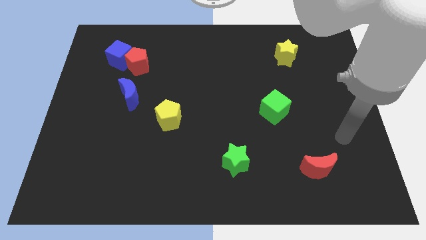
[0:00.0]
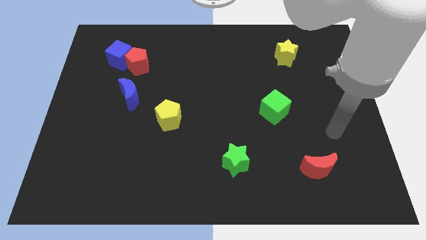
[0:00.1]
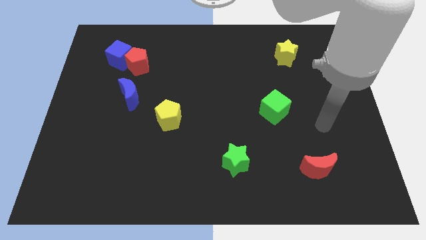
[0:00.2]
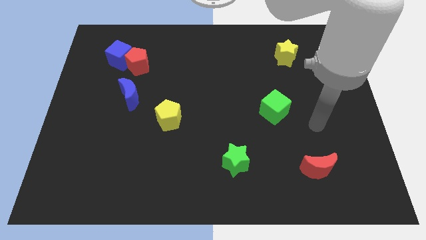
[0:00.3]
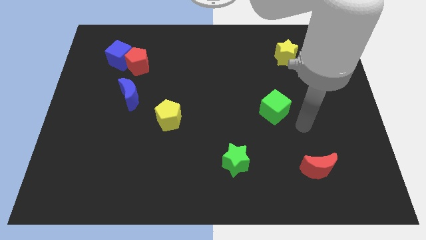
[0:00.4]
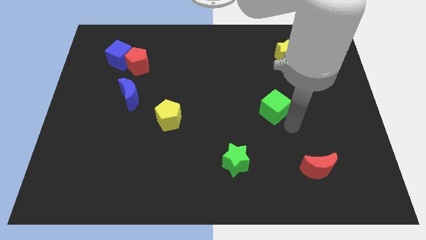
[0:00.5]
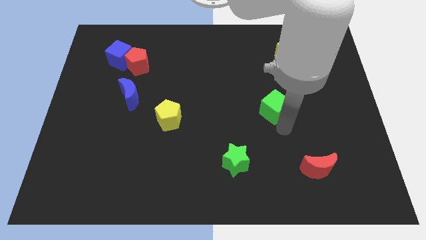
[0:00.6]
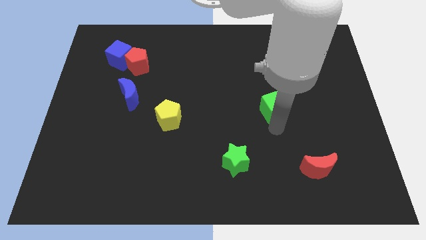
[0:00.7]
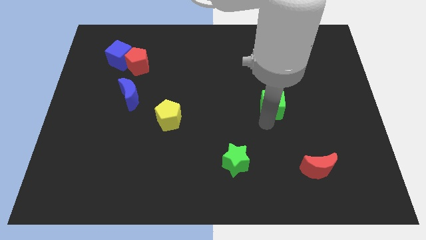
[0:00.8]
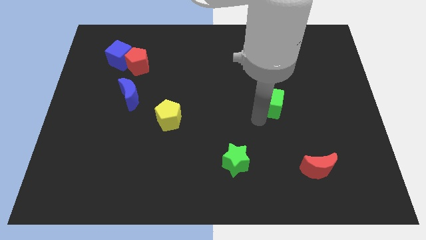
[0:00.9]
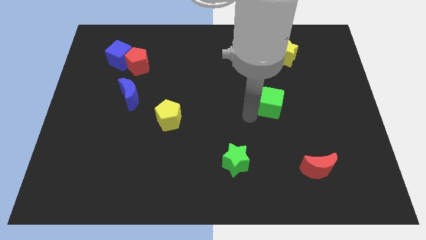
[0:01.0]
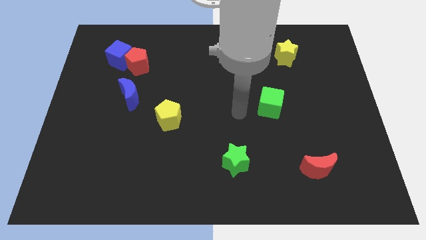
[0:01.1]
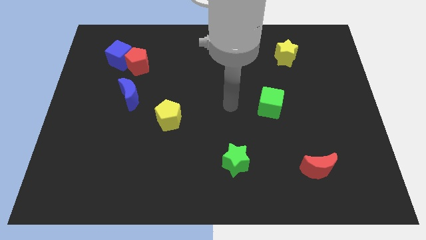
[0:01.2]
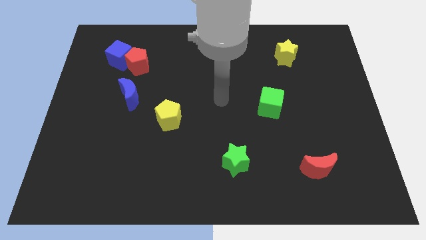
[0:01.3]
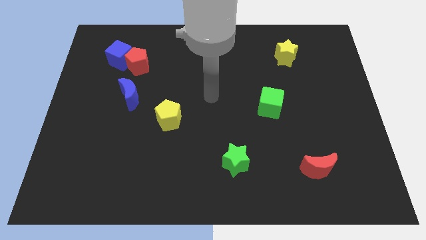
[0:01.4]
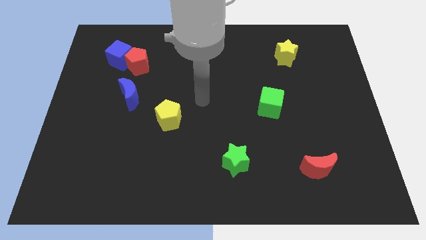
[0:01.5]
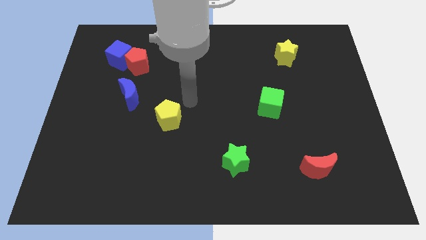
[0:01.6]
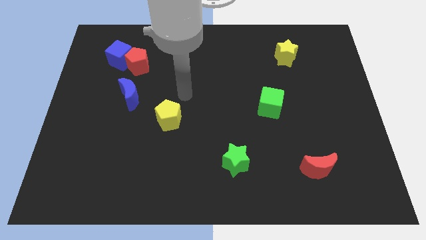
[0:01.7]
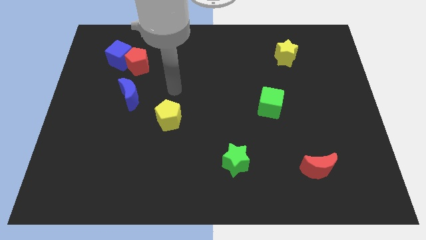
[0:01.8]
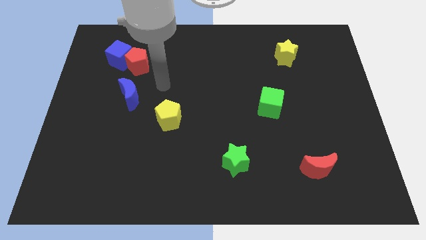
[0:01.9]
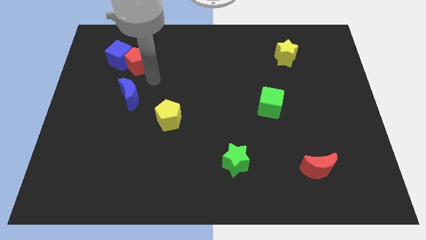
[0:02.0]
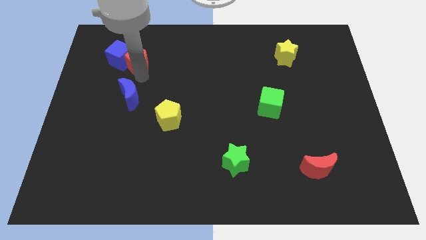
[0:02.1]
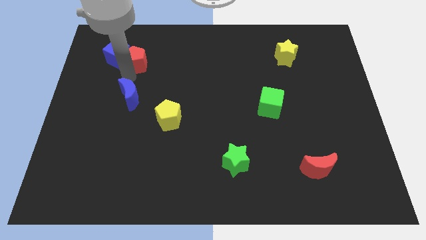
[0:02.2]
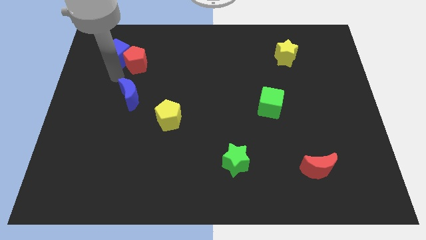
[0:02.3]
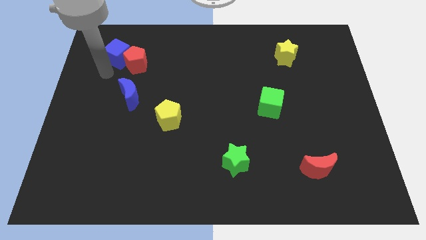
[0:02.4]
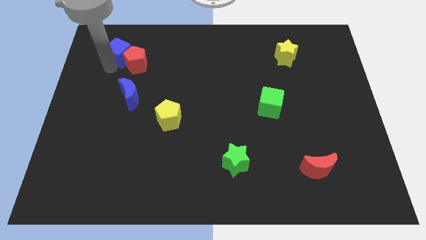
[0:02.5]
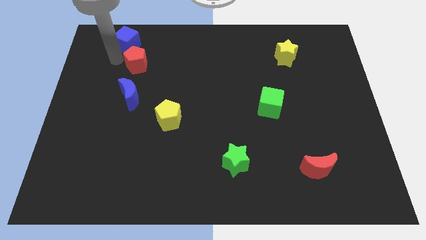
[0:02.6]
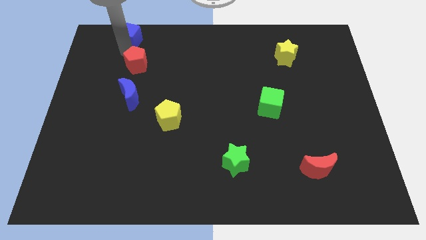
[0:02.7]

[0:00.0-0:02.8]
separate the red pentagon from the blue cube

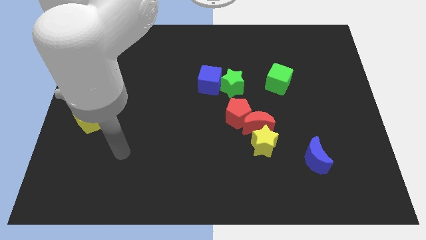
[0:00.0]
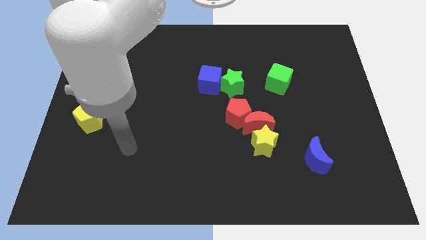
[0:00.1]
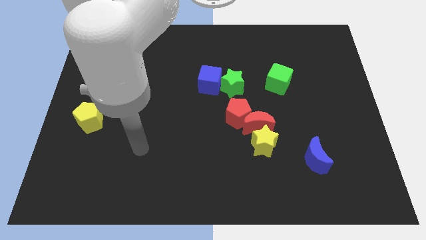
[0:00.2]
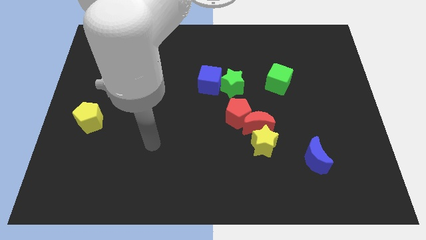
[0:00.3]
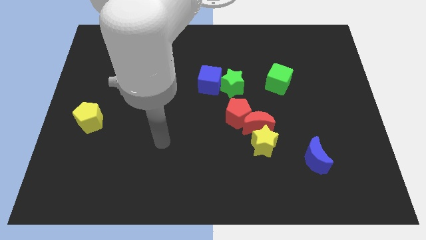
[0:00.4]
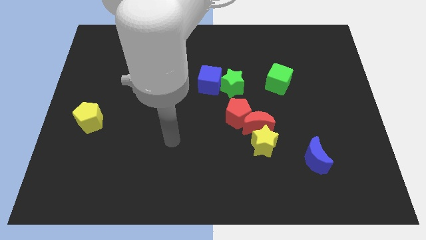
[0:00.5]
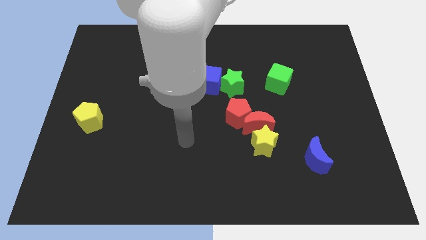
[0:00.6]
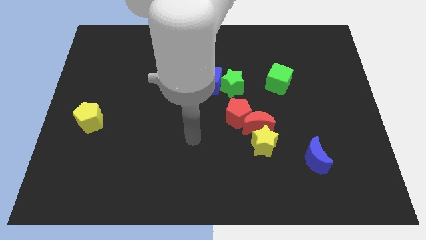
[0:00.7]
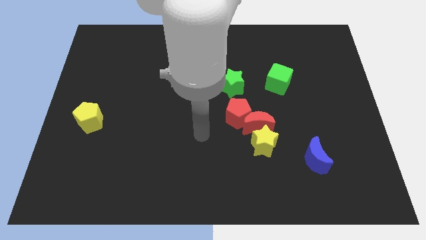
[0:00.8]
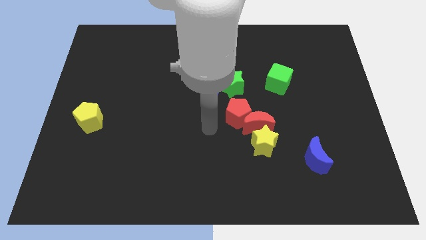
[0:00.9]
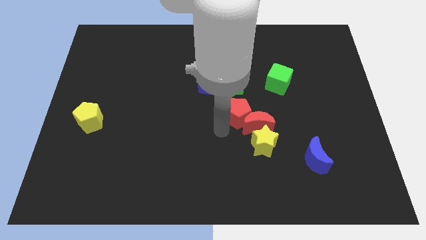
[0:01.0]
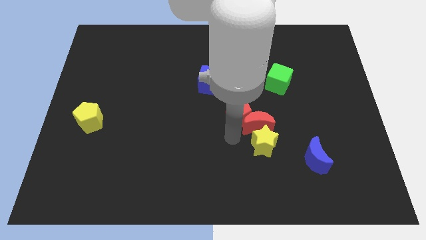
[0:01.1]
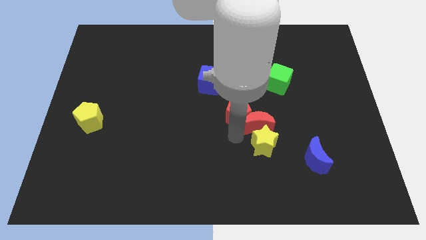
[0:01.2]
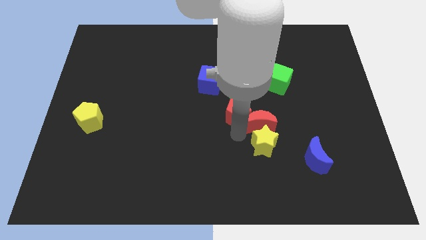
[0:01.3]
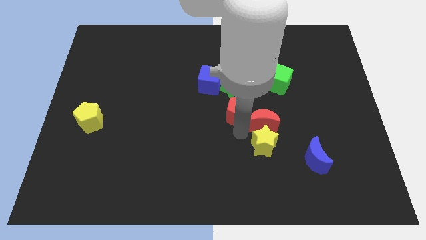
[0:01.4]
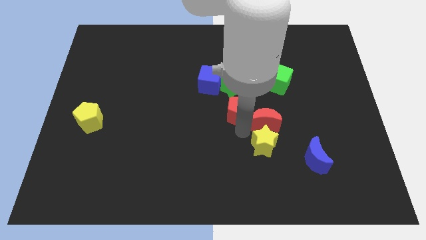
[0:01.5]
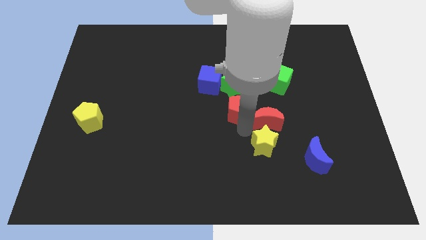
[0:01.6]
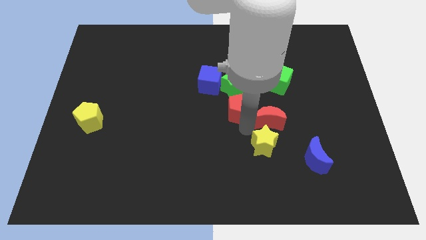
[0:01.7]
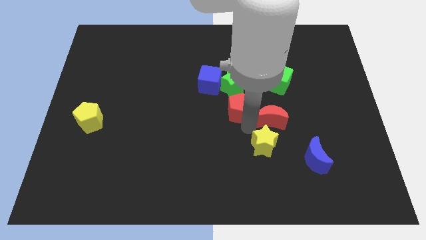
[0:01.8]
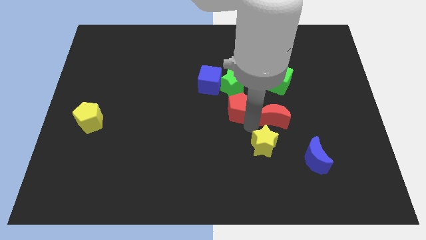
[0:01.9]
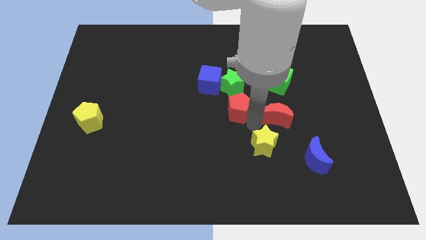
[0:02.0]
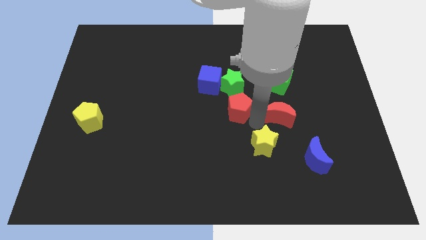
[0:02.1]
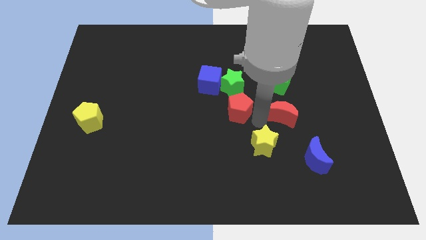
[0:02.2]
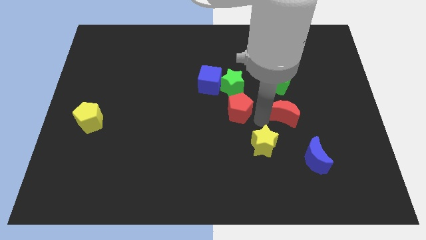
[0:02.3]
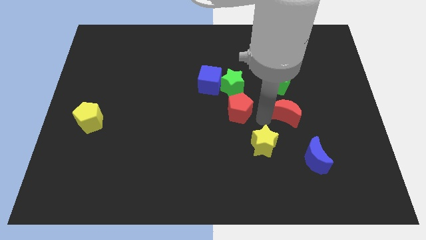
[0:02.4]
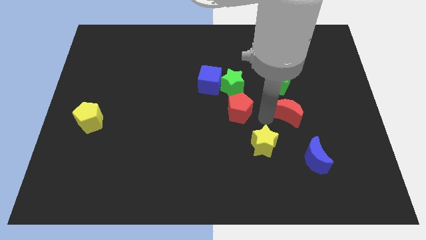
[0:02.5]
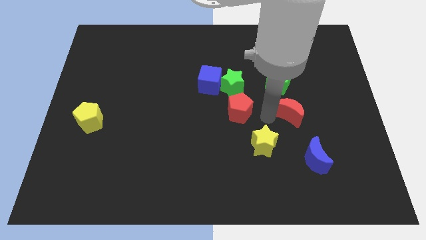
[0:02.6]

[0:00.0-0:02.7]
separate the red moon from the yellow star and red pentagon

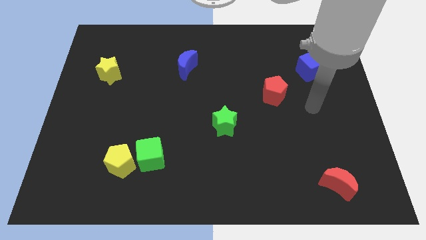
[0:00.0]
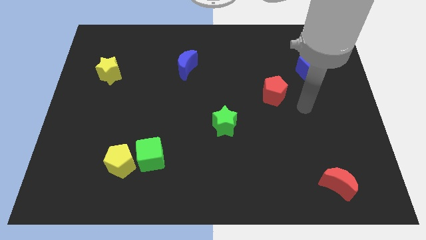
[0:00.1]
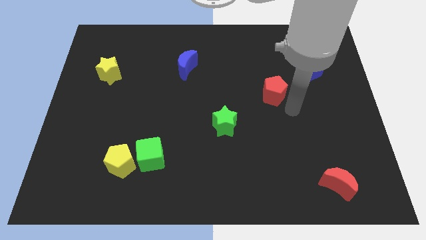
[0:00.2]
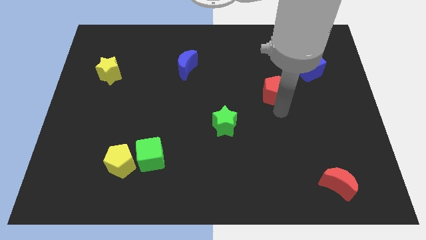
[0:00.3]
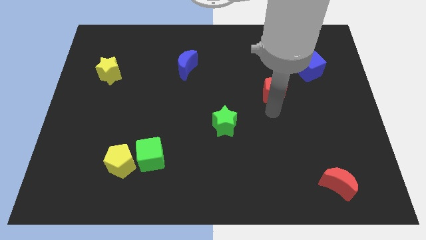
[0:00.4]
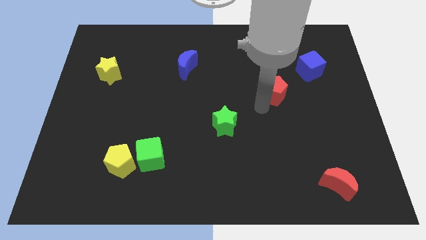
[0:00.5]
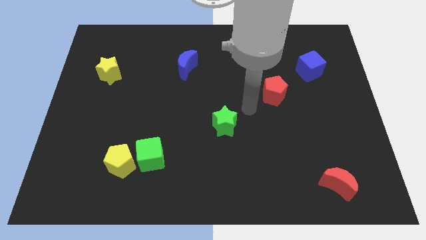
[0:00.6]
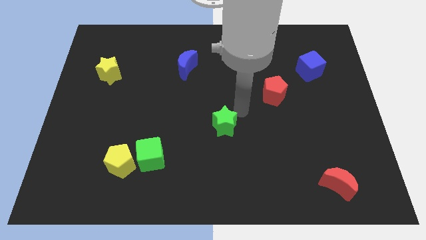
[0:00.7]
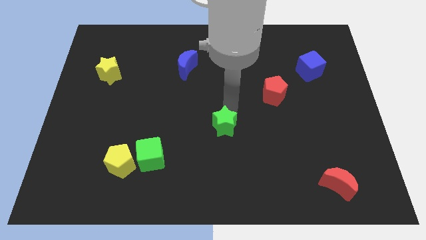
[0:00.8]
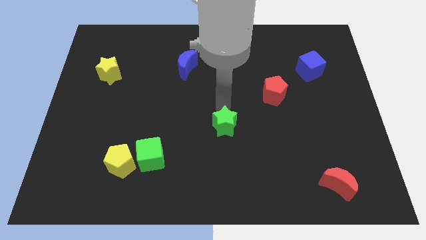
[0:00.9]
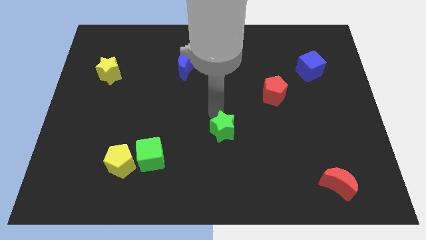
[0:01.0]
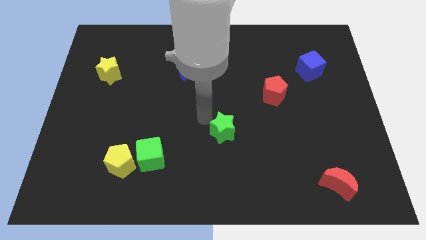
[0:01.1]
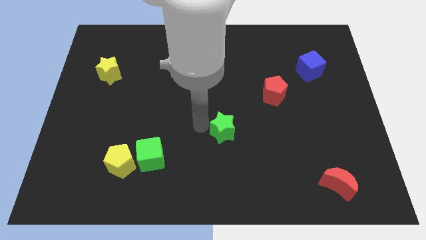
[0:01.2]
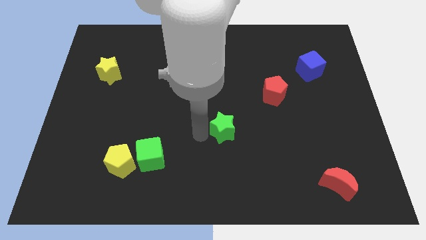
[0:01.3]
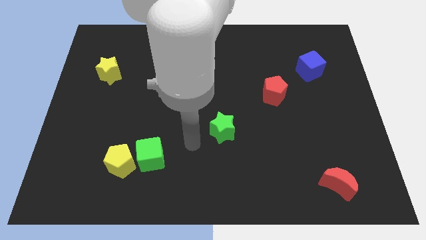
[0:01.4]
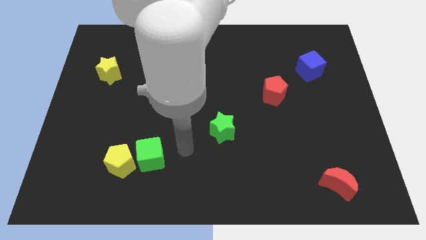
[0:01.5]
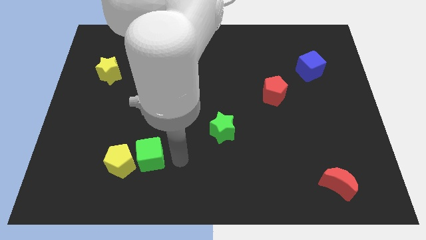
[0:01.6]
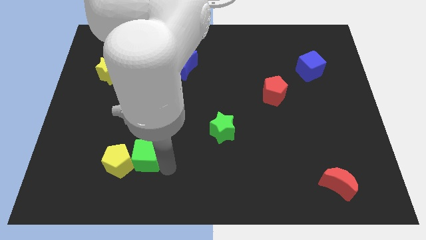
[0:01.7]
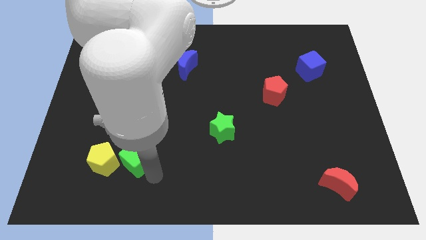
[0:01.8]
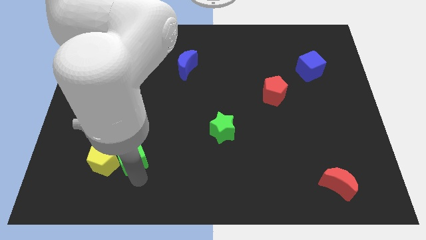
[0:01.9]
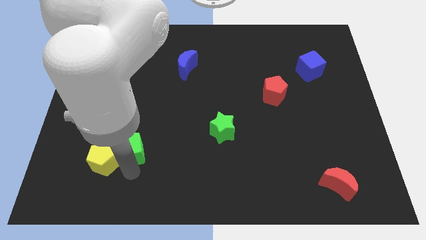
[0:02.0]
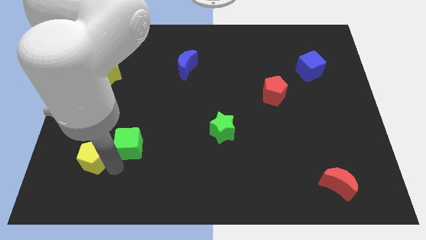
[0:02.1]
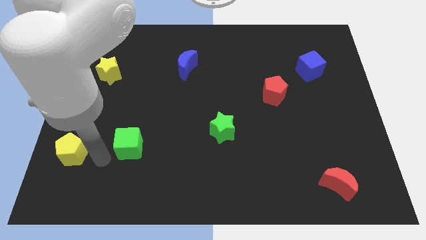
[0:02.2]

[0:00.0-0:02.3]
move the green cube away from the yellow pentagon

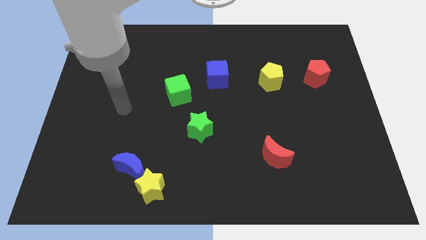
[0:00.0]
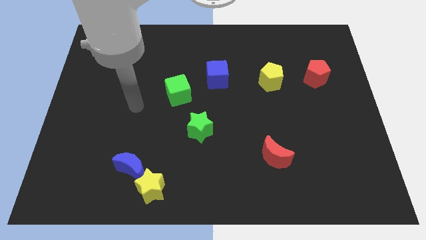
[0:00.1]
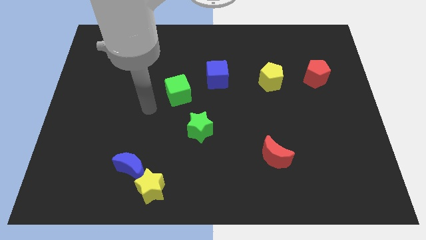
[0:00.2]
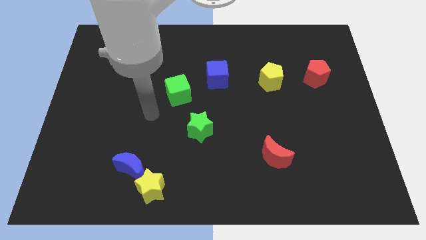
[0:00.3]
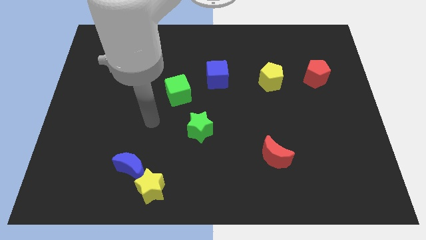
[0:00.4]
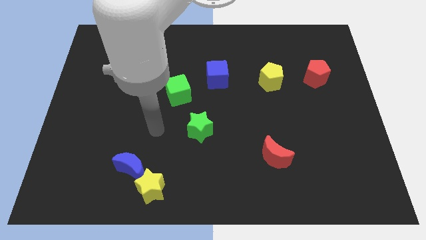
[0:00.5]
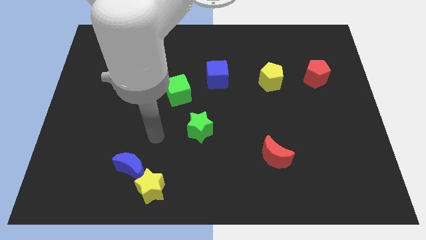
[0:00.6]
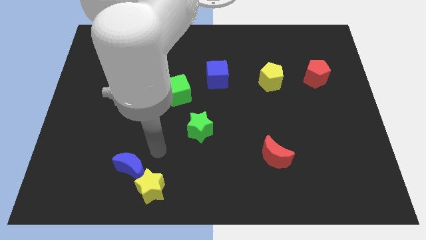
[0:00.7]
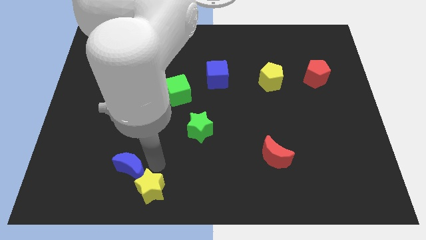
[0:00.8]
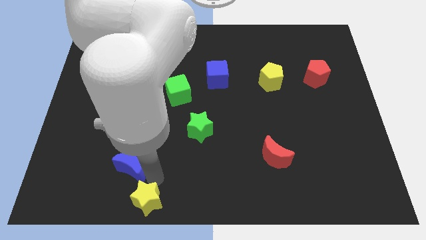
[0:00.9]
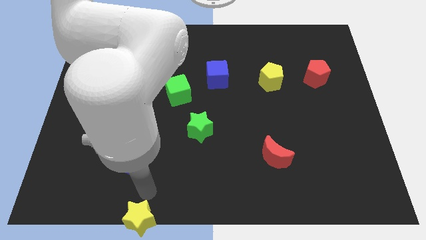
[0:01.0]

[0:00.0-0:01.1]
move the blue moon away from the yellow star

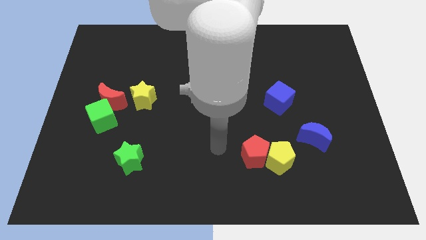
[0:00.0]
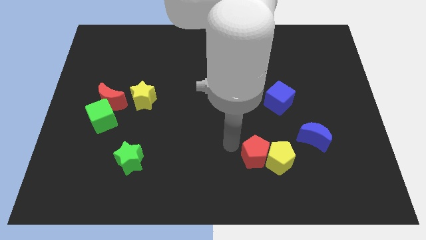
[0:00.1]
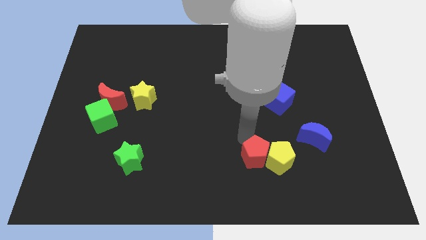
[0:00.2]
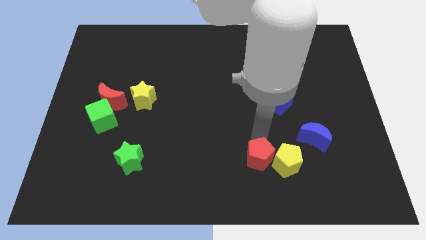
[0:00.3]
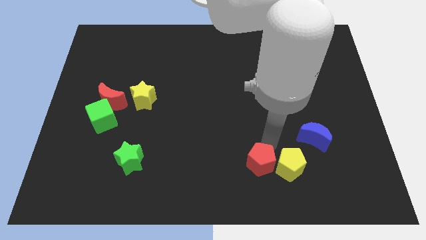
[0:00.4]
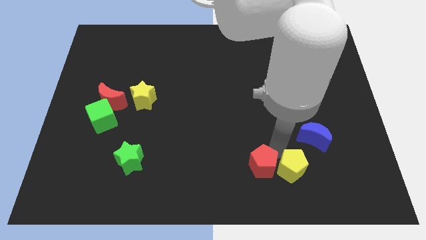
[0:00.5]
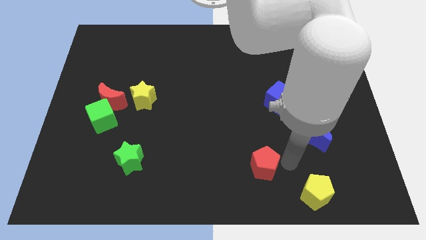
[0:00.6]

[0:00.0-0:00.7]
move the red pentagon away from the yellow pentagon
